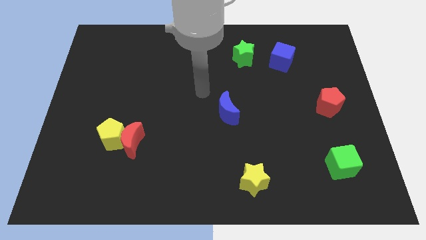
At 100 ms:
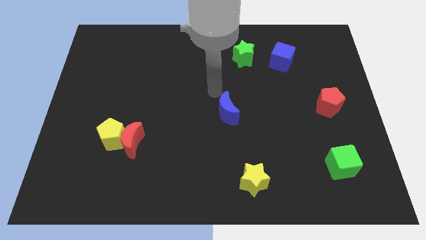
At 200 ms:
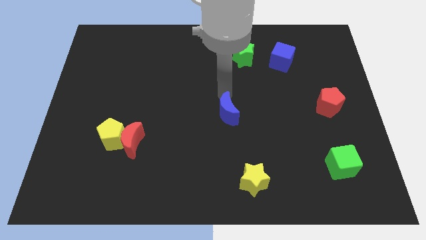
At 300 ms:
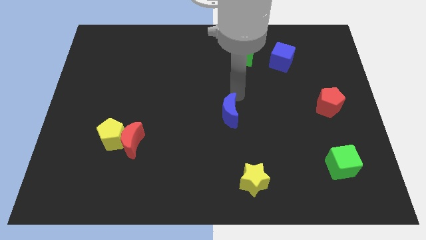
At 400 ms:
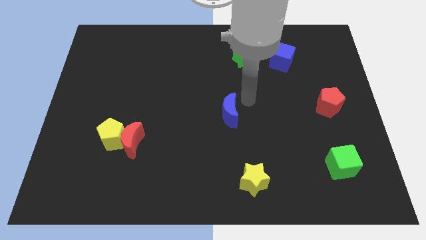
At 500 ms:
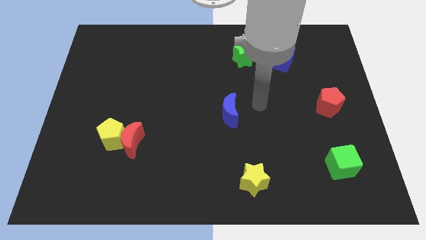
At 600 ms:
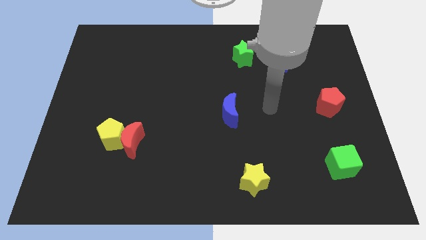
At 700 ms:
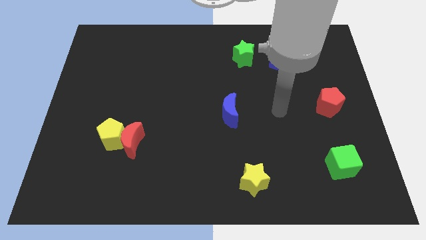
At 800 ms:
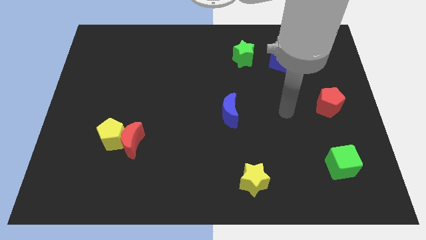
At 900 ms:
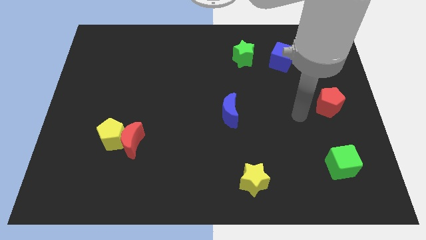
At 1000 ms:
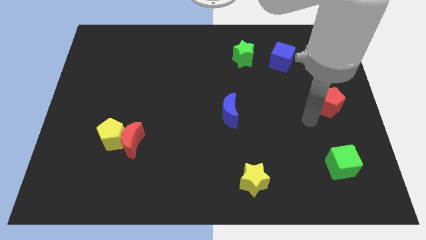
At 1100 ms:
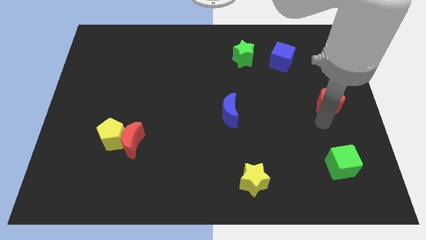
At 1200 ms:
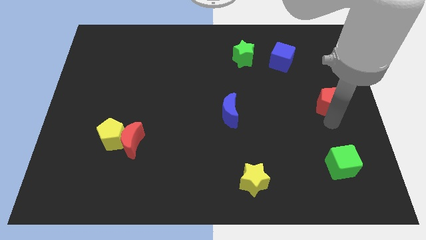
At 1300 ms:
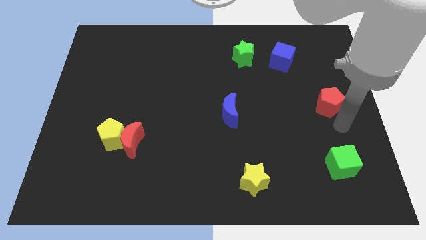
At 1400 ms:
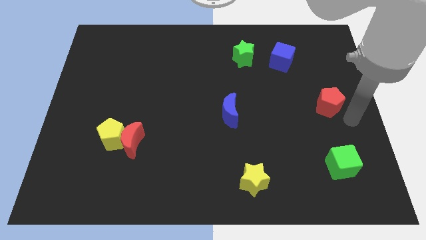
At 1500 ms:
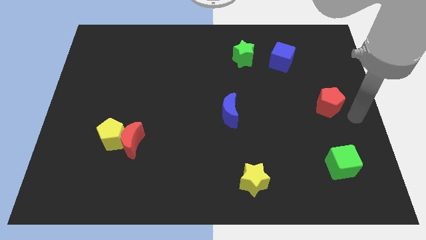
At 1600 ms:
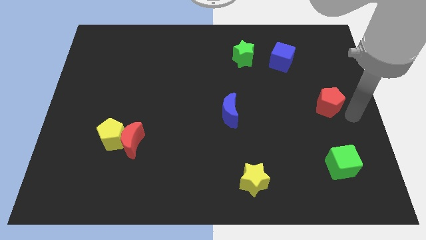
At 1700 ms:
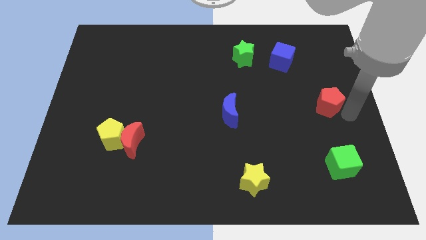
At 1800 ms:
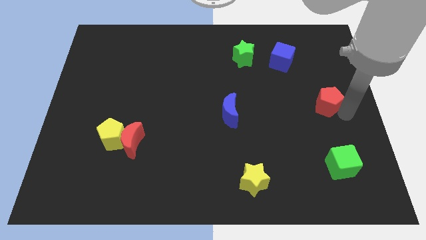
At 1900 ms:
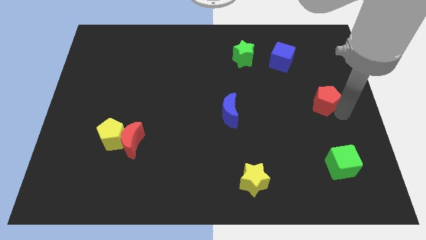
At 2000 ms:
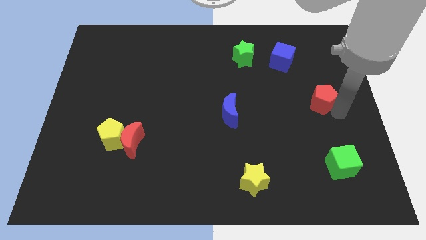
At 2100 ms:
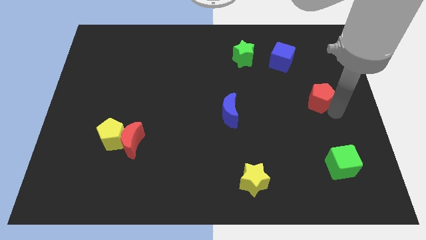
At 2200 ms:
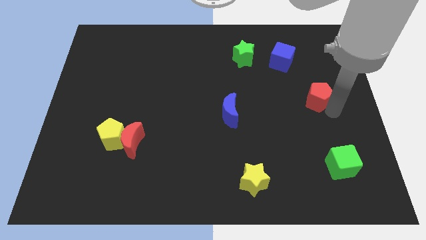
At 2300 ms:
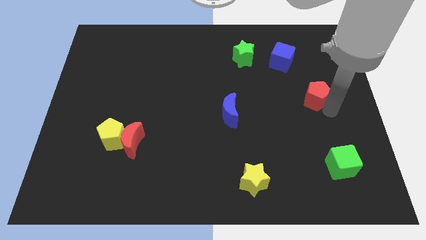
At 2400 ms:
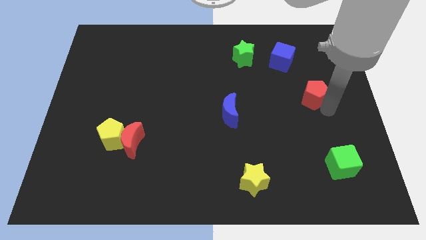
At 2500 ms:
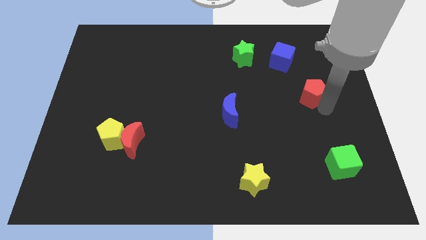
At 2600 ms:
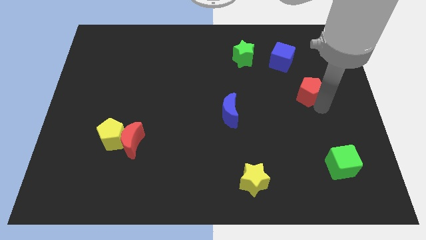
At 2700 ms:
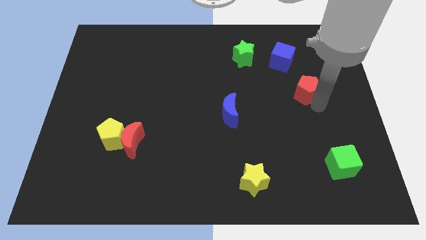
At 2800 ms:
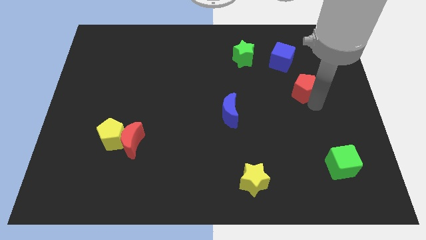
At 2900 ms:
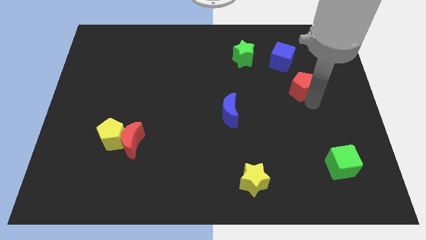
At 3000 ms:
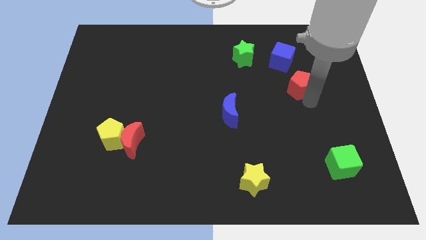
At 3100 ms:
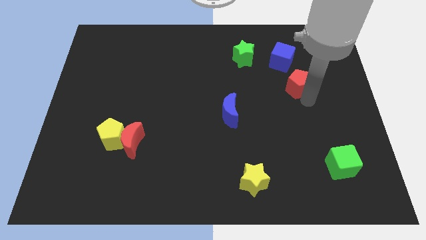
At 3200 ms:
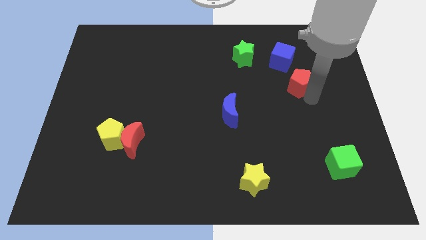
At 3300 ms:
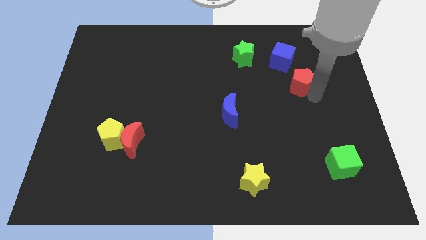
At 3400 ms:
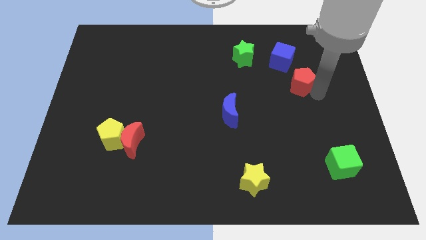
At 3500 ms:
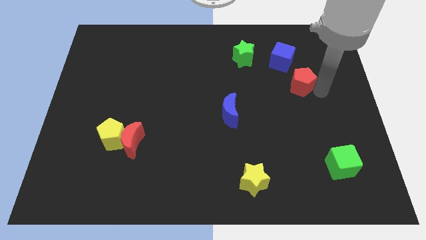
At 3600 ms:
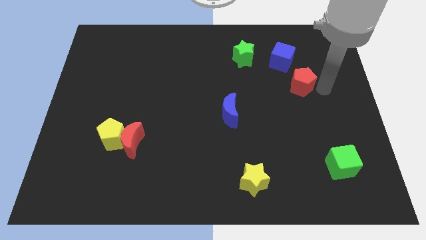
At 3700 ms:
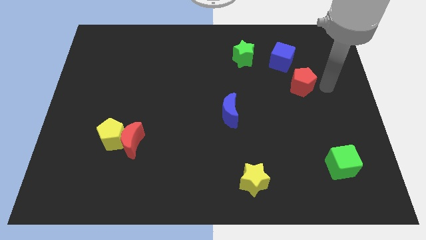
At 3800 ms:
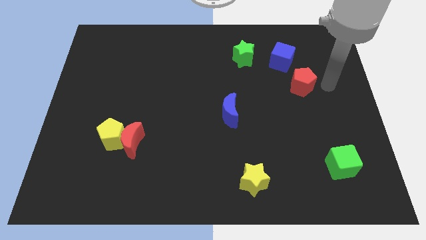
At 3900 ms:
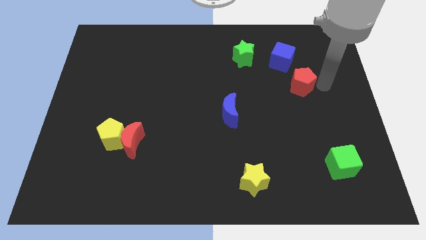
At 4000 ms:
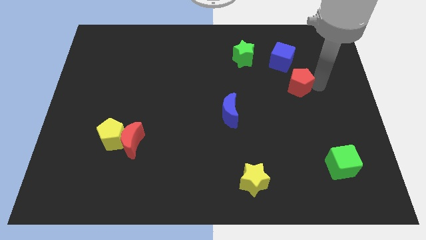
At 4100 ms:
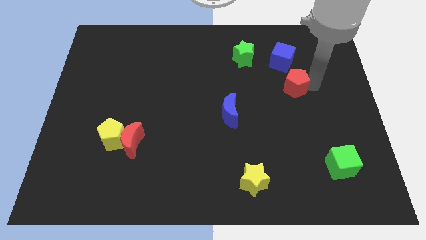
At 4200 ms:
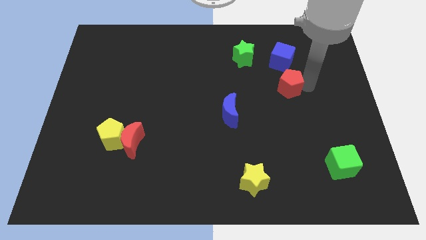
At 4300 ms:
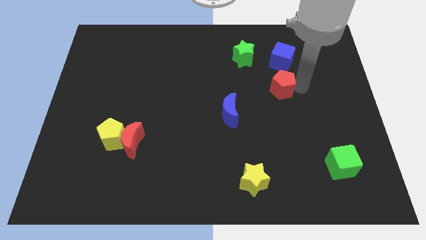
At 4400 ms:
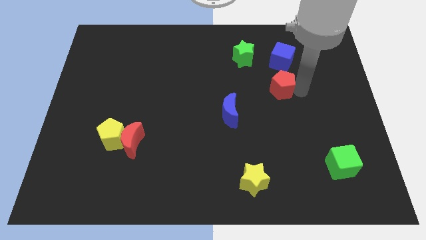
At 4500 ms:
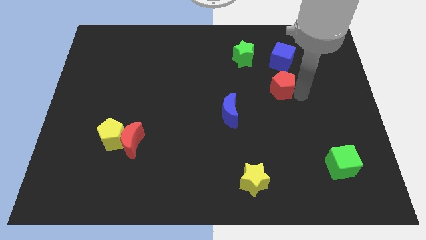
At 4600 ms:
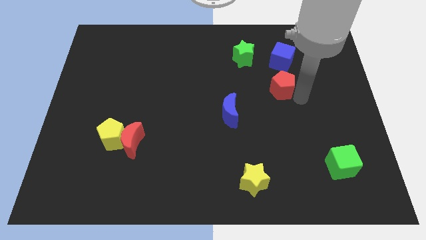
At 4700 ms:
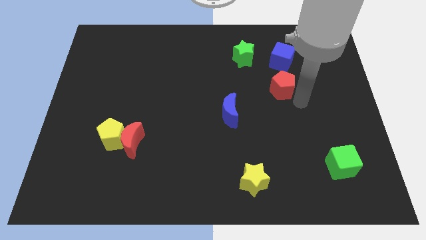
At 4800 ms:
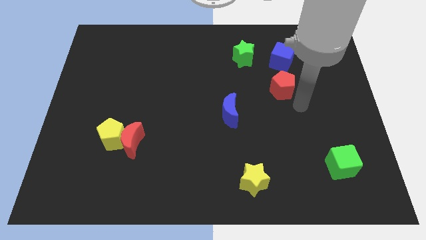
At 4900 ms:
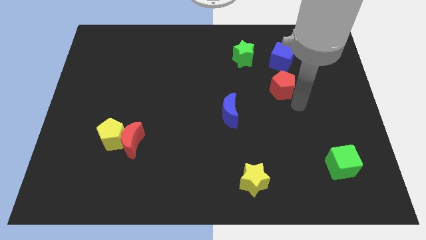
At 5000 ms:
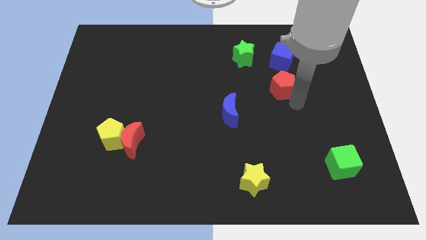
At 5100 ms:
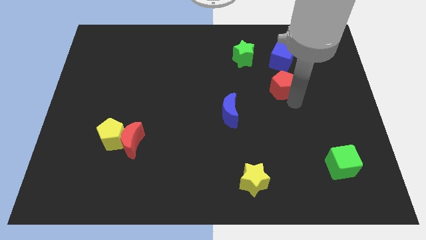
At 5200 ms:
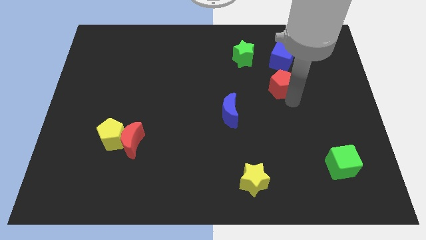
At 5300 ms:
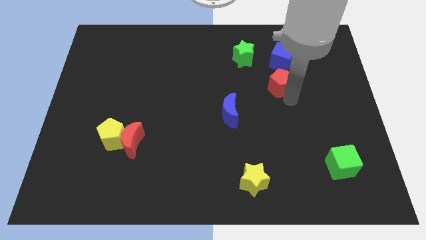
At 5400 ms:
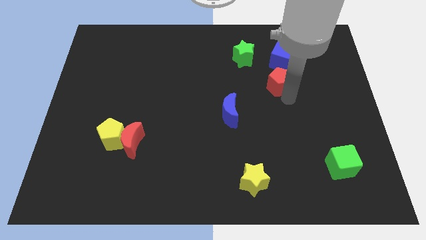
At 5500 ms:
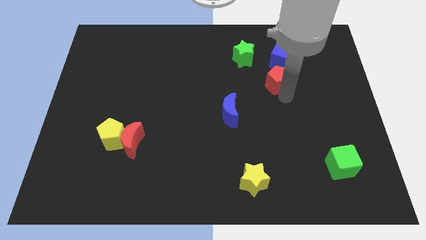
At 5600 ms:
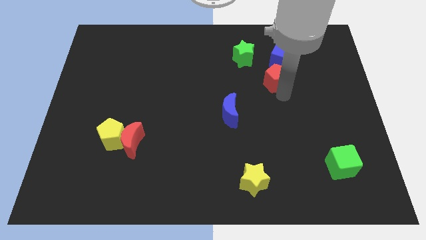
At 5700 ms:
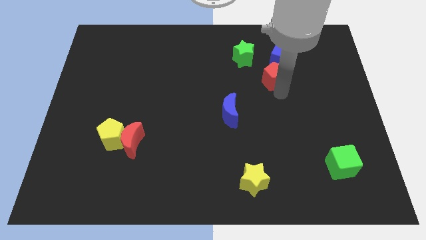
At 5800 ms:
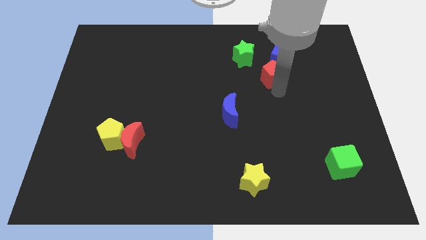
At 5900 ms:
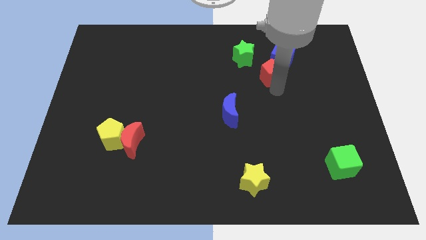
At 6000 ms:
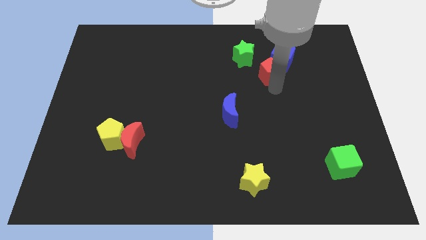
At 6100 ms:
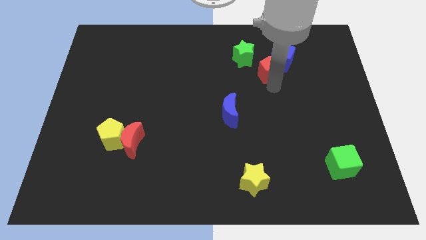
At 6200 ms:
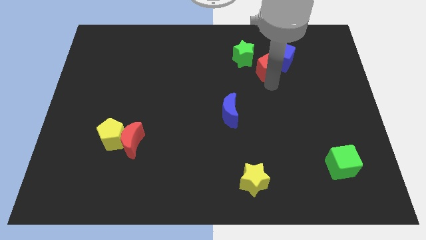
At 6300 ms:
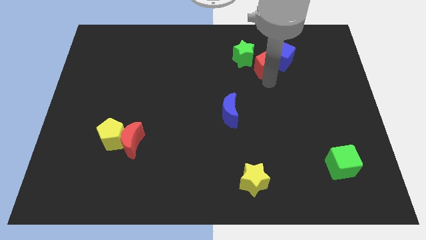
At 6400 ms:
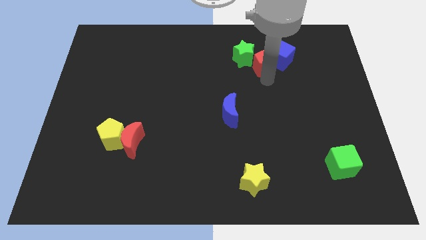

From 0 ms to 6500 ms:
move the red pentagon next to the green star
